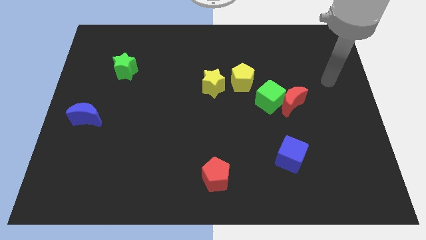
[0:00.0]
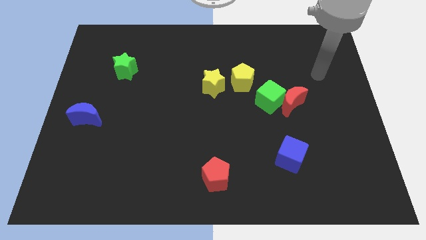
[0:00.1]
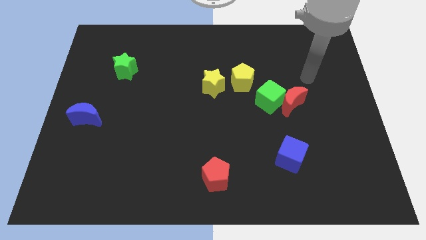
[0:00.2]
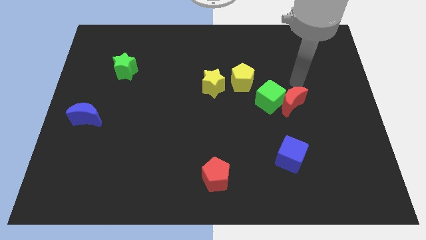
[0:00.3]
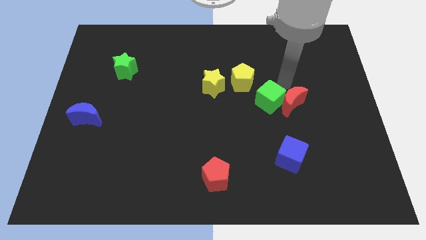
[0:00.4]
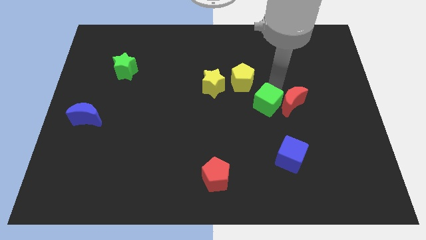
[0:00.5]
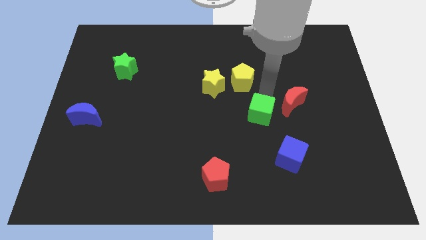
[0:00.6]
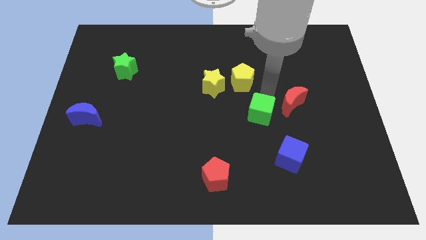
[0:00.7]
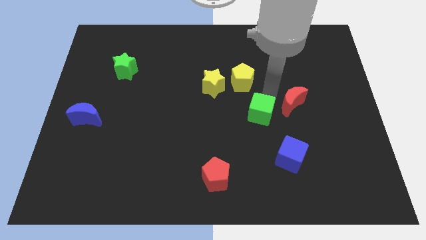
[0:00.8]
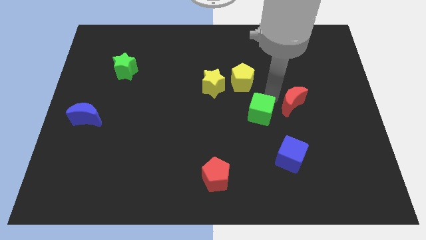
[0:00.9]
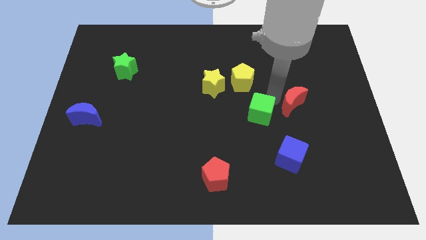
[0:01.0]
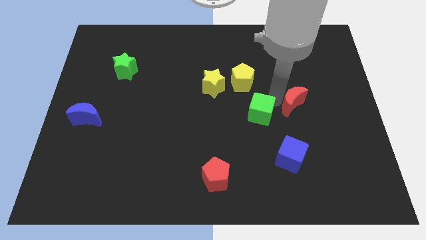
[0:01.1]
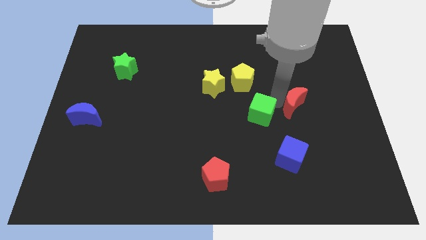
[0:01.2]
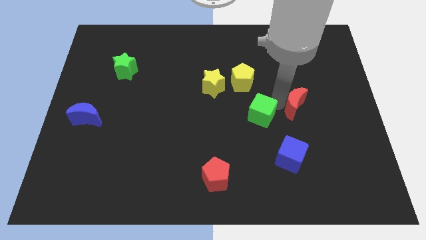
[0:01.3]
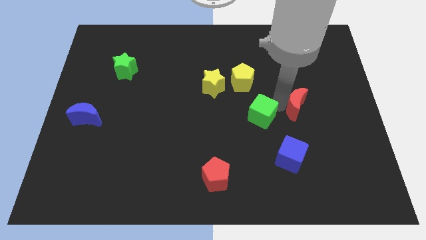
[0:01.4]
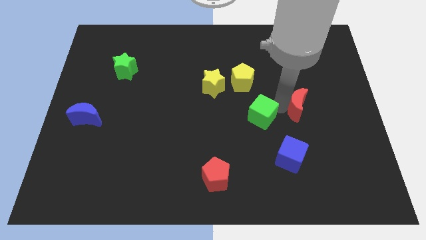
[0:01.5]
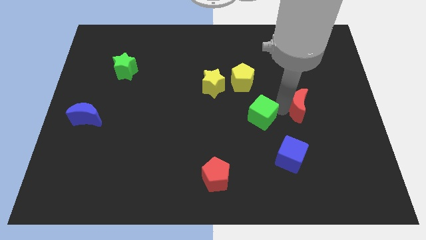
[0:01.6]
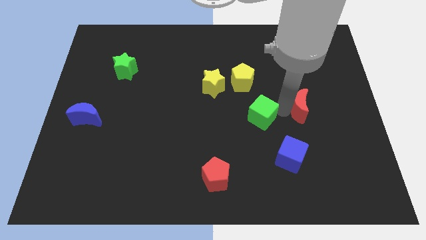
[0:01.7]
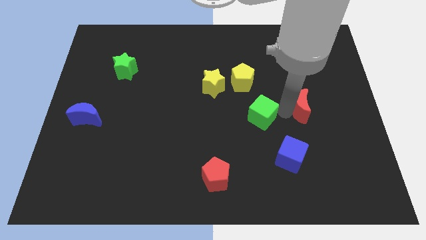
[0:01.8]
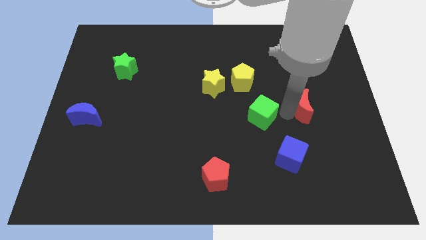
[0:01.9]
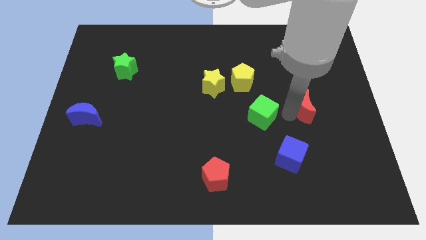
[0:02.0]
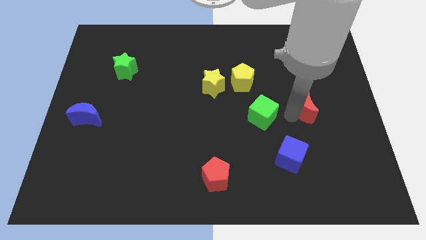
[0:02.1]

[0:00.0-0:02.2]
separate the red moon from the green cube

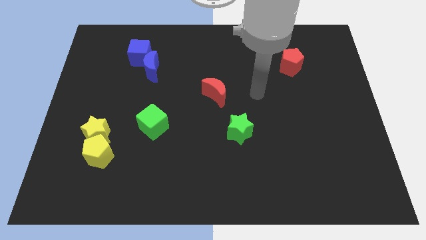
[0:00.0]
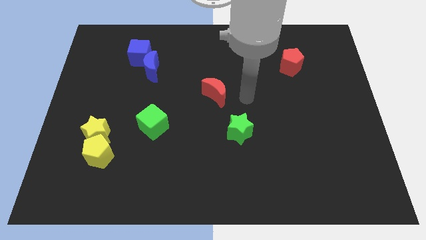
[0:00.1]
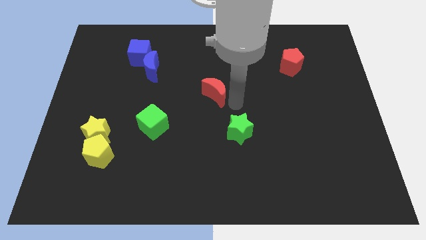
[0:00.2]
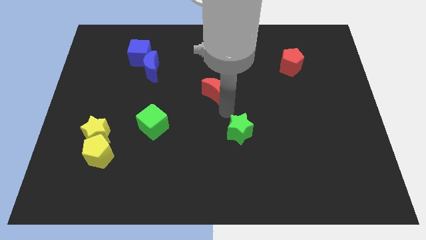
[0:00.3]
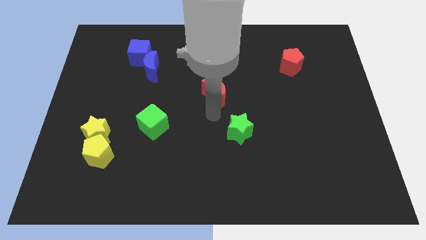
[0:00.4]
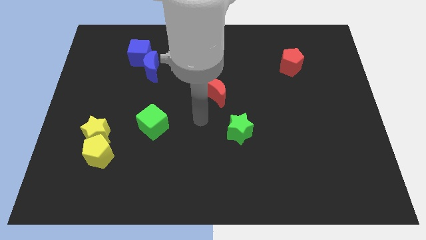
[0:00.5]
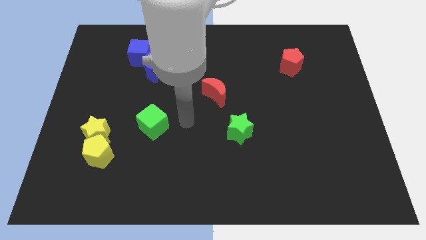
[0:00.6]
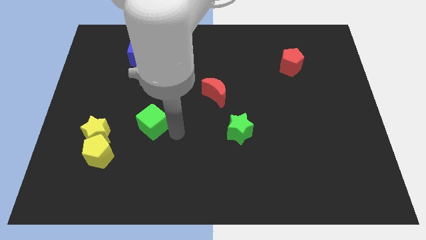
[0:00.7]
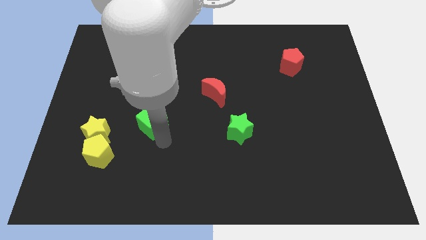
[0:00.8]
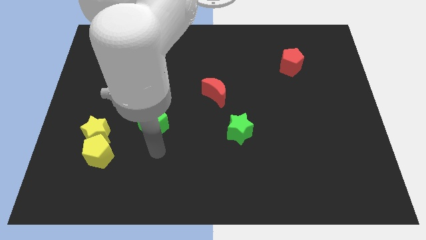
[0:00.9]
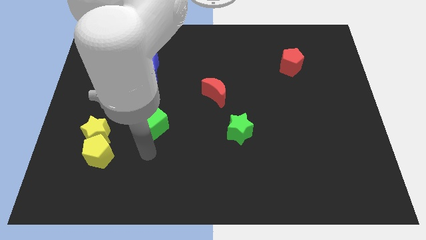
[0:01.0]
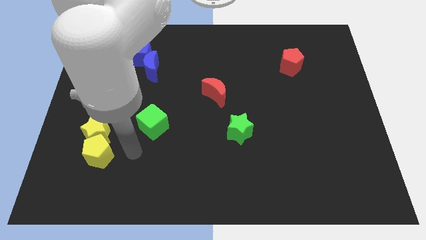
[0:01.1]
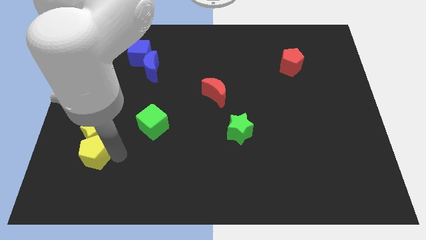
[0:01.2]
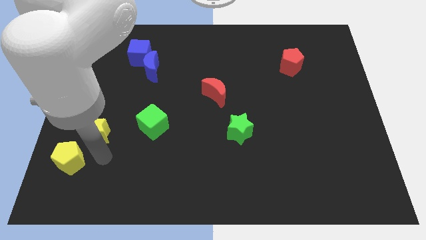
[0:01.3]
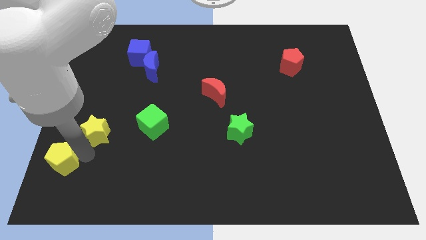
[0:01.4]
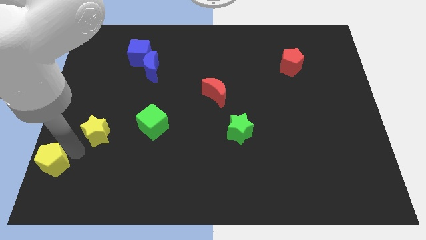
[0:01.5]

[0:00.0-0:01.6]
pull the yellow star apart from the yellow pentagon

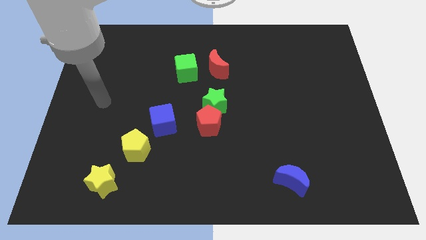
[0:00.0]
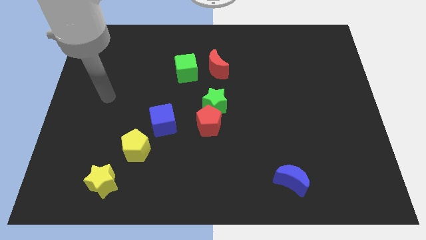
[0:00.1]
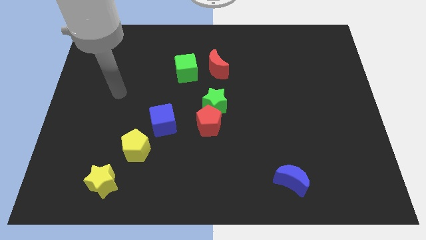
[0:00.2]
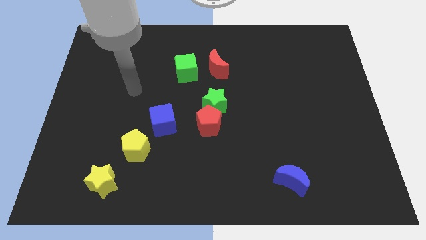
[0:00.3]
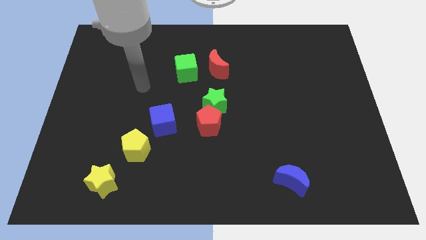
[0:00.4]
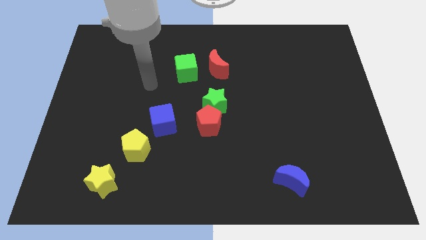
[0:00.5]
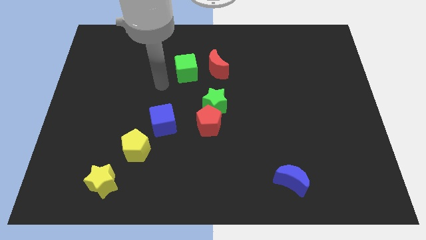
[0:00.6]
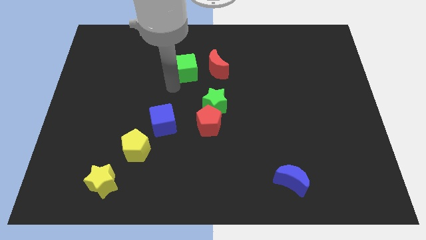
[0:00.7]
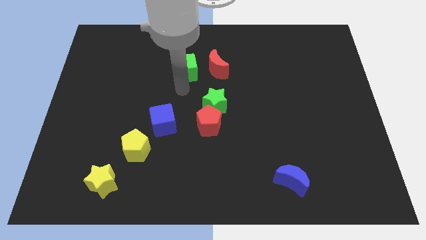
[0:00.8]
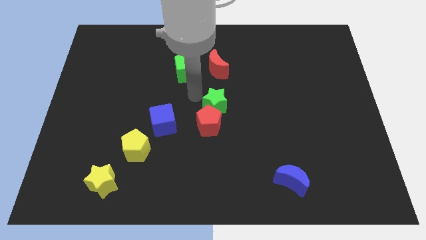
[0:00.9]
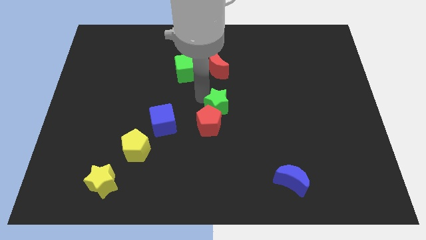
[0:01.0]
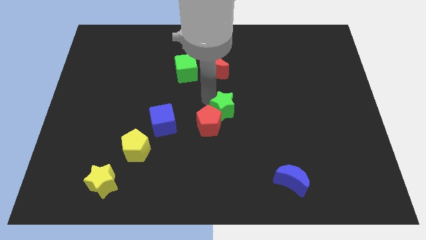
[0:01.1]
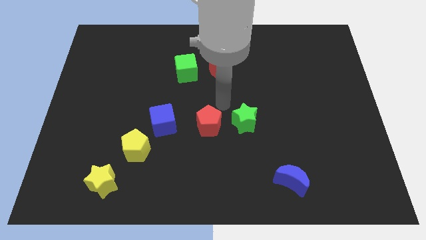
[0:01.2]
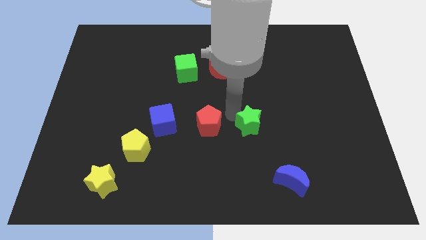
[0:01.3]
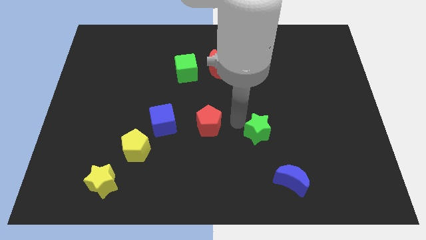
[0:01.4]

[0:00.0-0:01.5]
separate the red pentagon from the green star

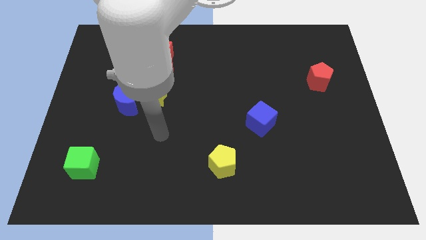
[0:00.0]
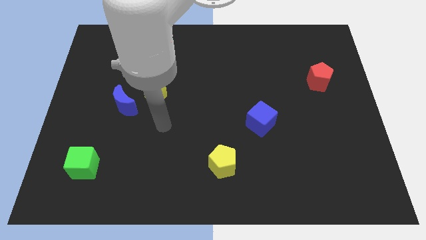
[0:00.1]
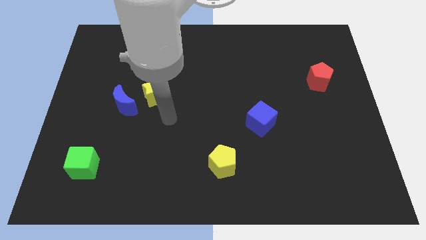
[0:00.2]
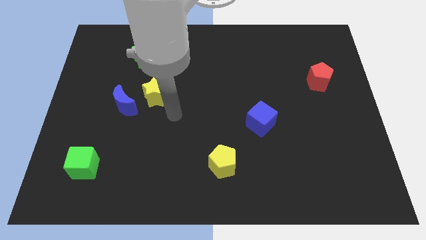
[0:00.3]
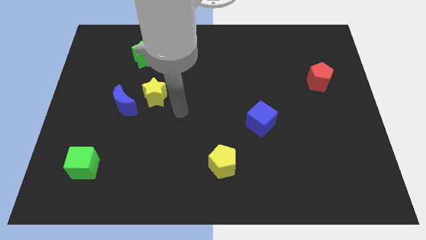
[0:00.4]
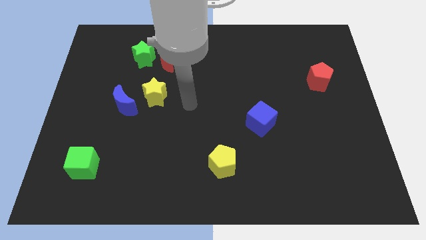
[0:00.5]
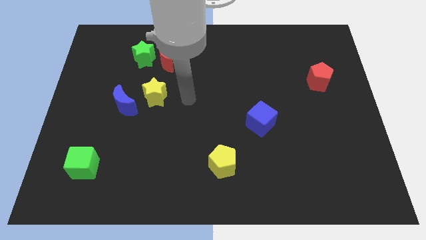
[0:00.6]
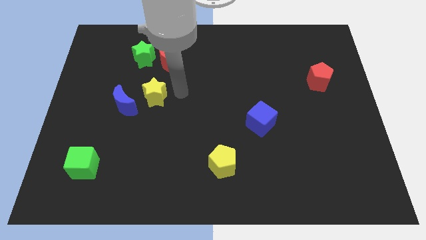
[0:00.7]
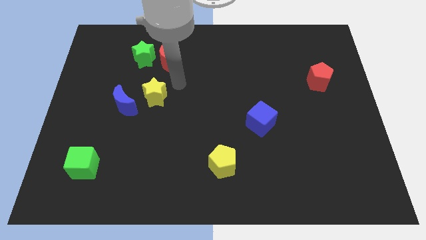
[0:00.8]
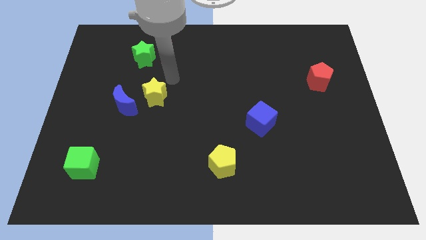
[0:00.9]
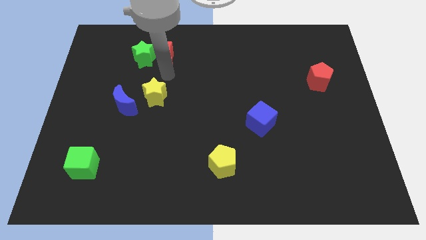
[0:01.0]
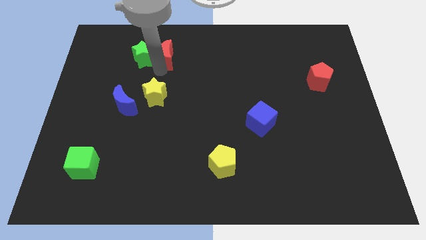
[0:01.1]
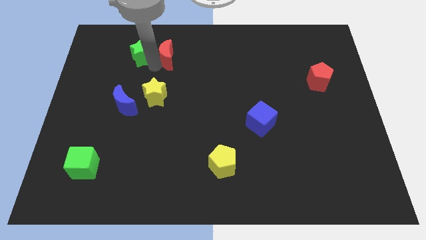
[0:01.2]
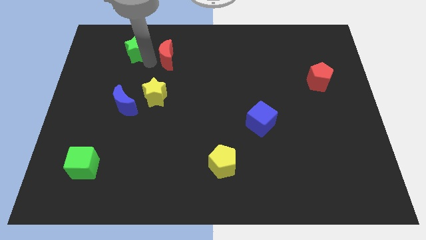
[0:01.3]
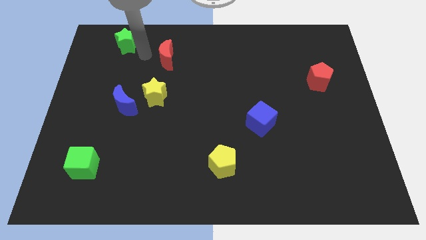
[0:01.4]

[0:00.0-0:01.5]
move the red moon away from the green star

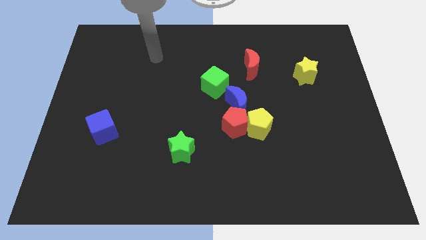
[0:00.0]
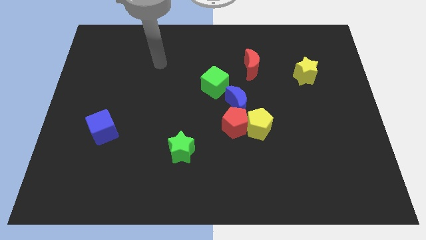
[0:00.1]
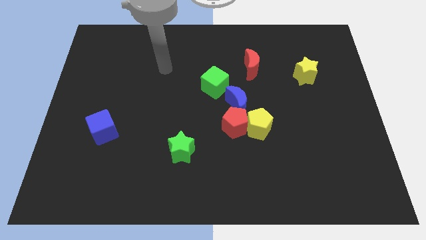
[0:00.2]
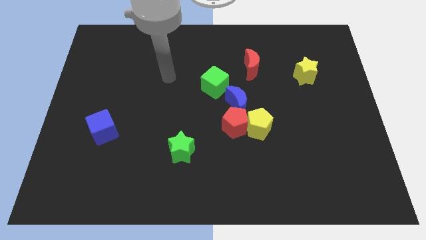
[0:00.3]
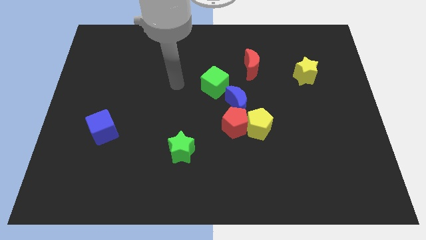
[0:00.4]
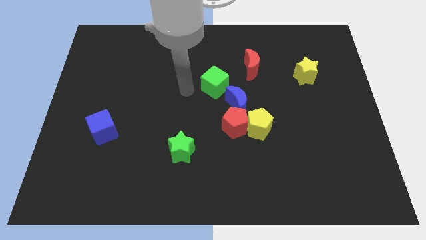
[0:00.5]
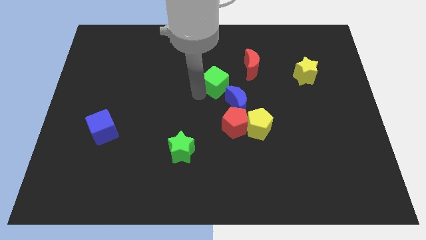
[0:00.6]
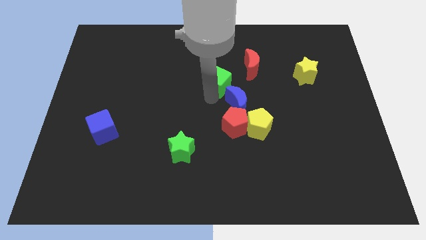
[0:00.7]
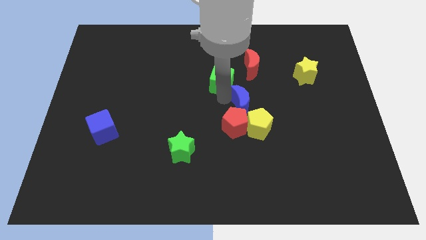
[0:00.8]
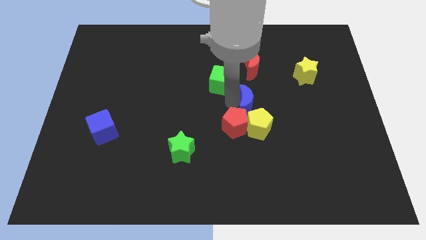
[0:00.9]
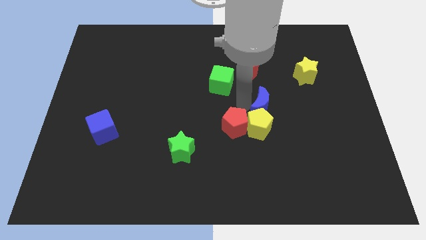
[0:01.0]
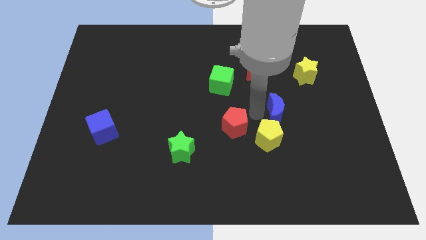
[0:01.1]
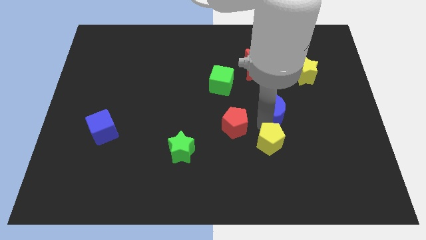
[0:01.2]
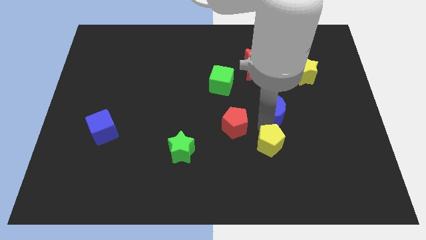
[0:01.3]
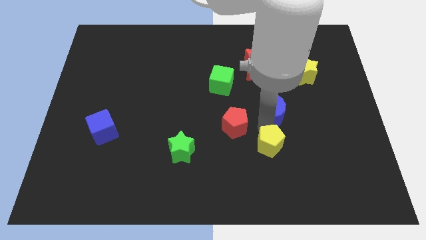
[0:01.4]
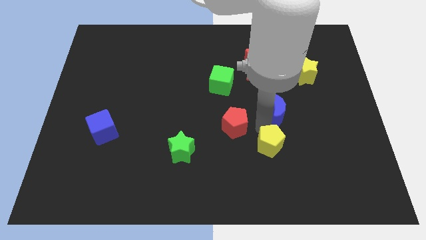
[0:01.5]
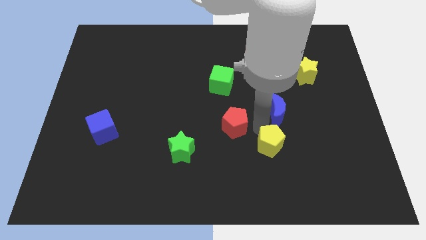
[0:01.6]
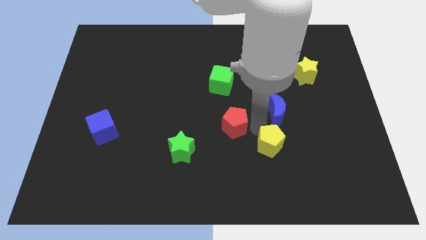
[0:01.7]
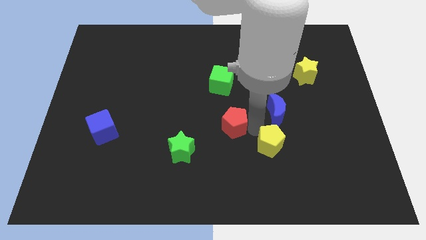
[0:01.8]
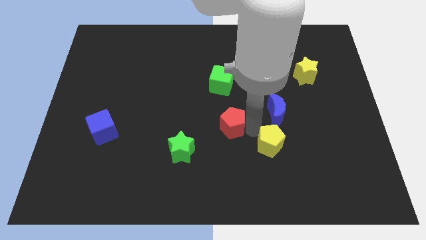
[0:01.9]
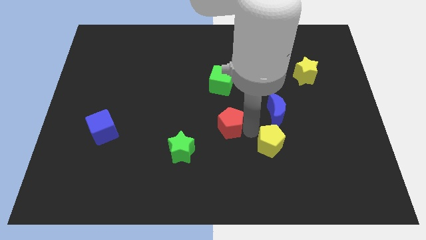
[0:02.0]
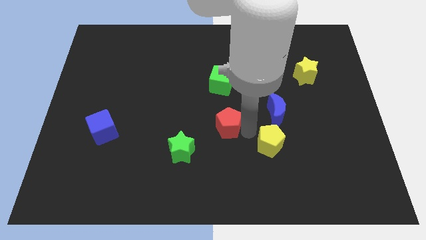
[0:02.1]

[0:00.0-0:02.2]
separate the red pentagon from the yellow pentagon and blue moon

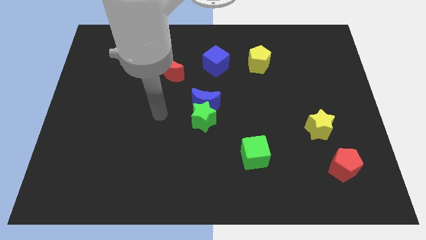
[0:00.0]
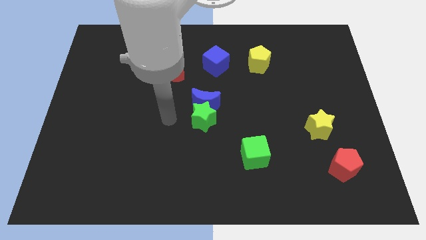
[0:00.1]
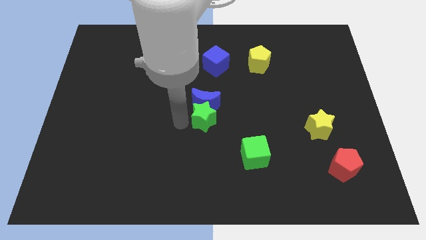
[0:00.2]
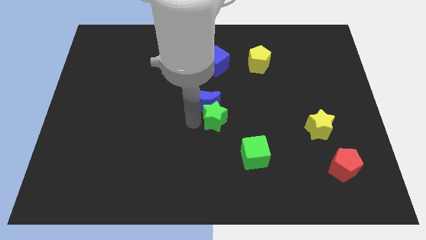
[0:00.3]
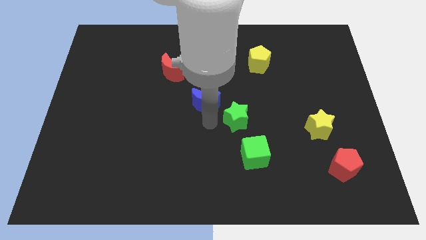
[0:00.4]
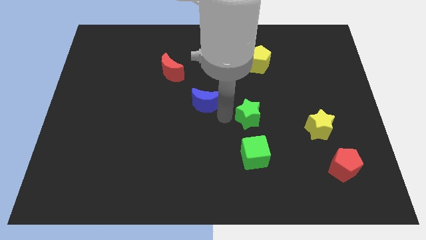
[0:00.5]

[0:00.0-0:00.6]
pull the blue moon apart from the green star
